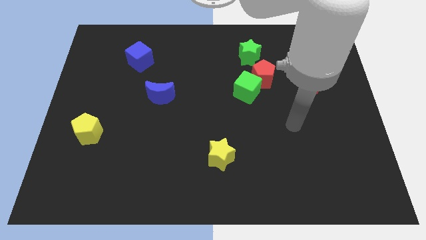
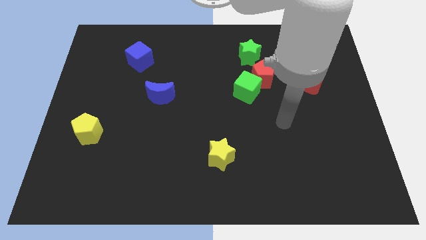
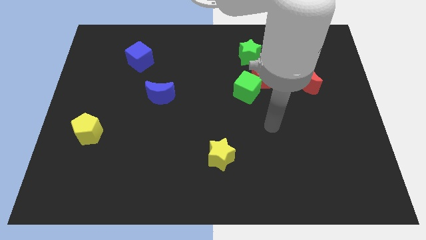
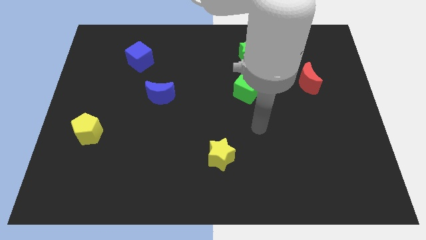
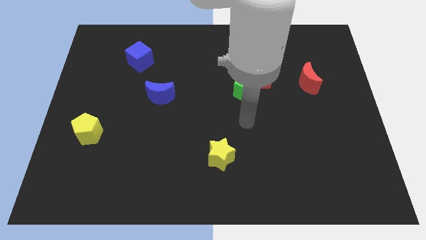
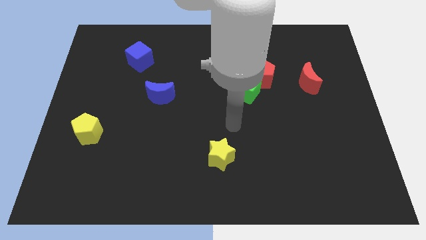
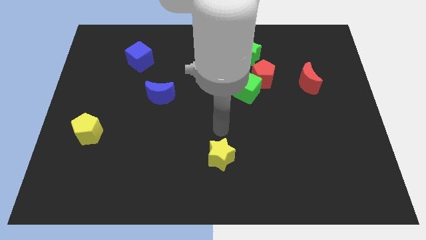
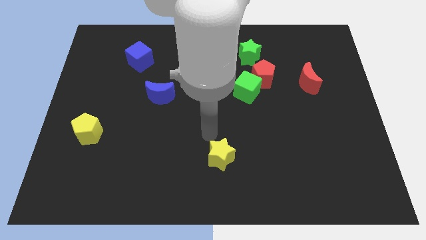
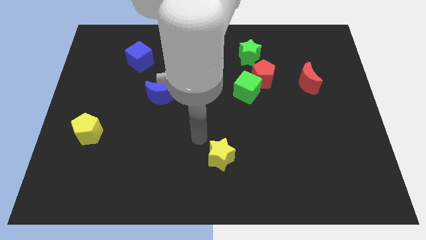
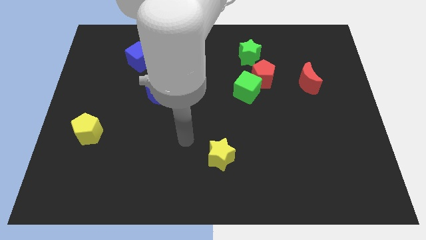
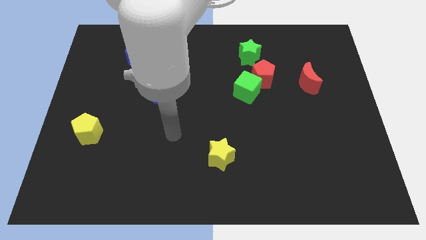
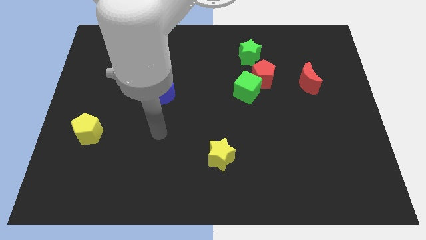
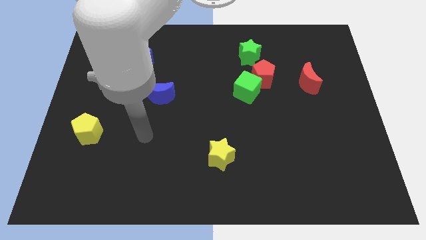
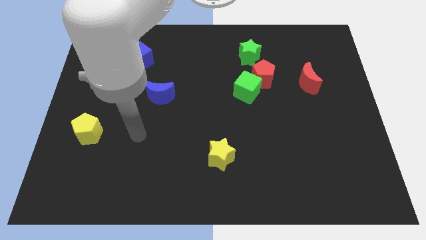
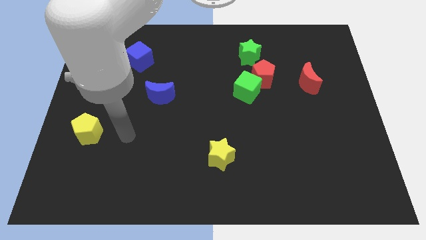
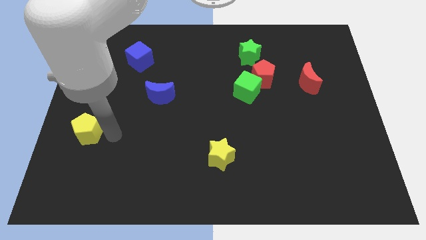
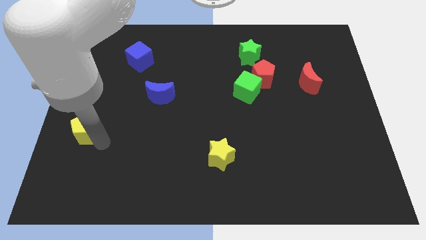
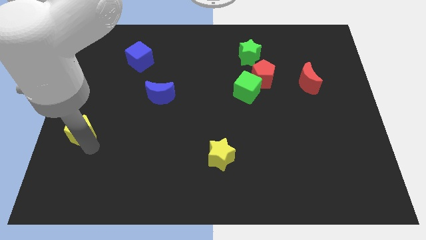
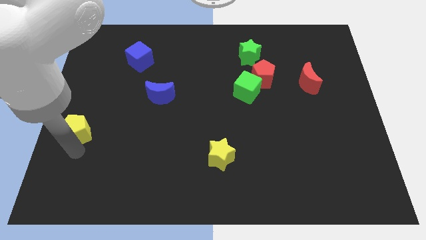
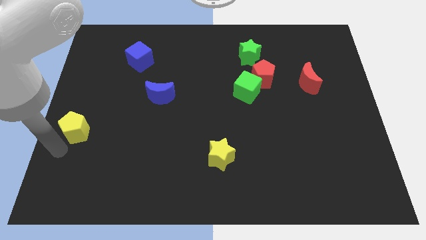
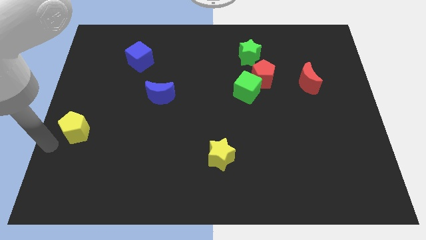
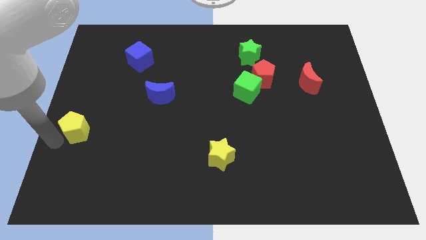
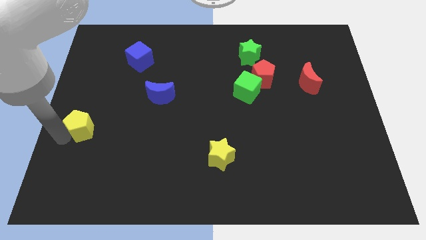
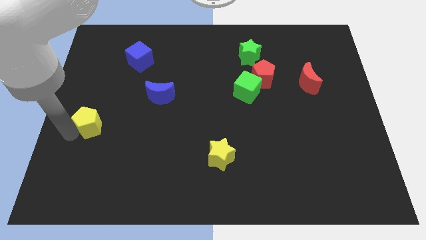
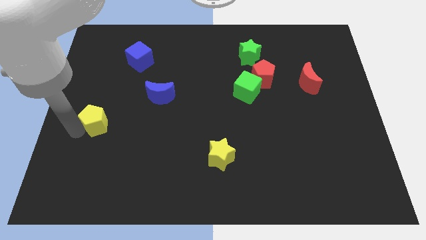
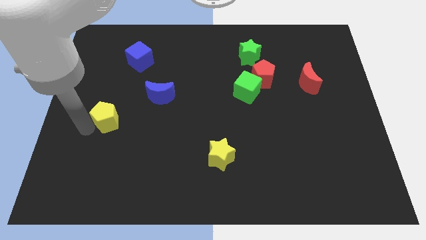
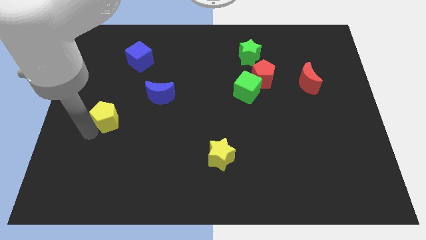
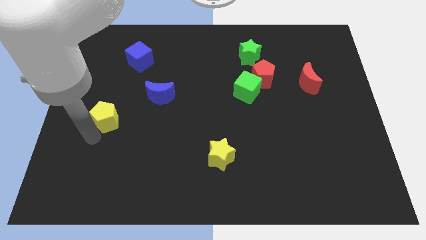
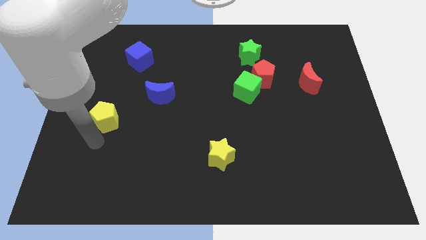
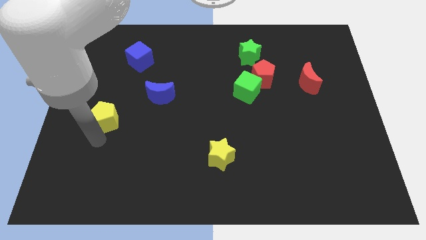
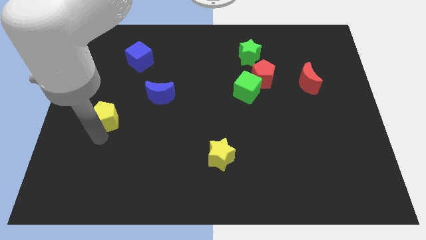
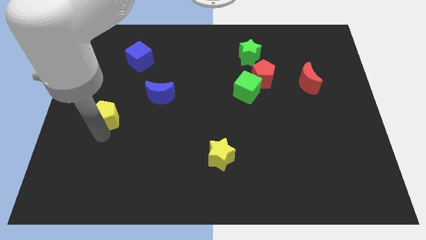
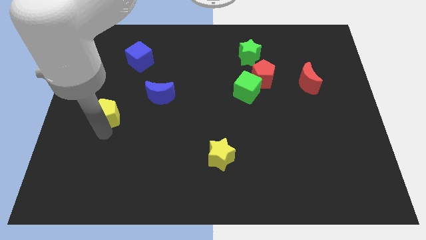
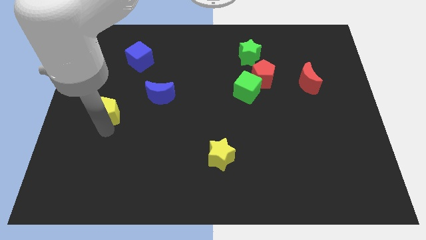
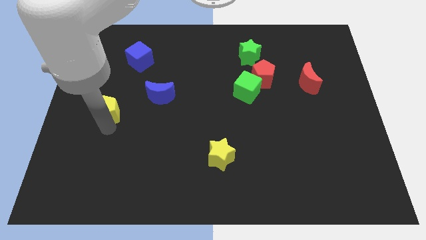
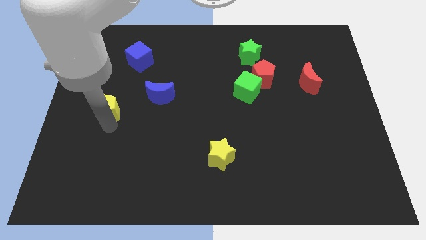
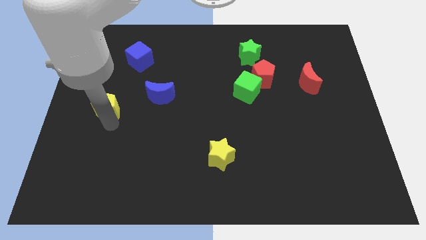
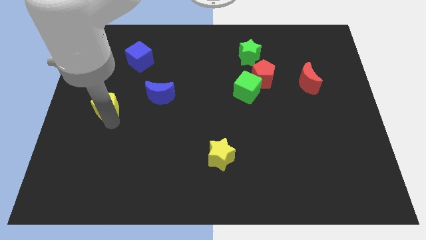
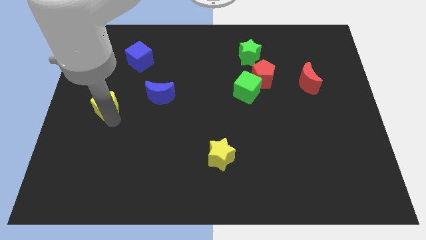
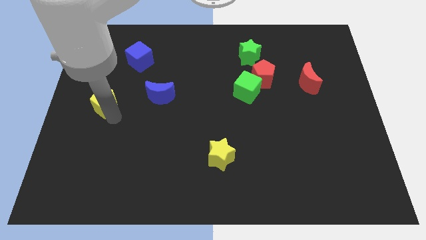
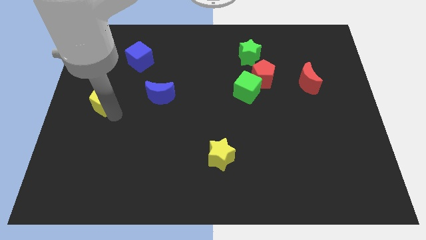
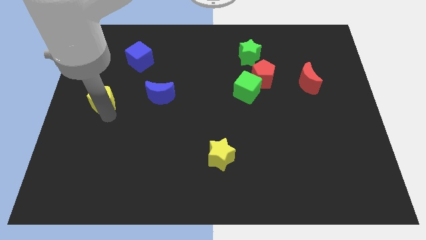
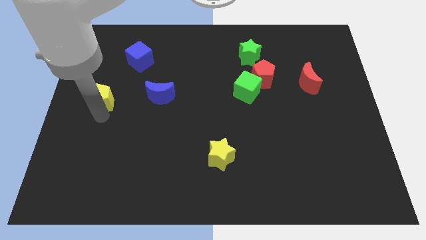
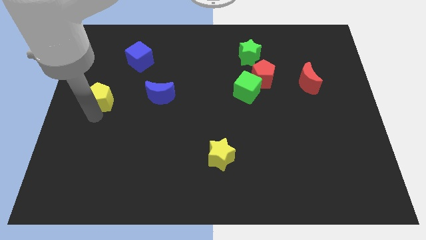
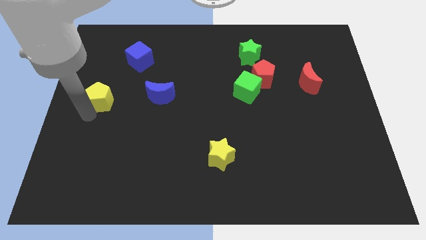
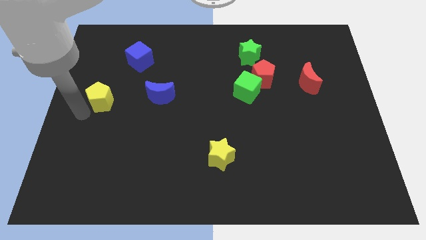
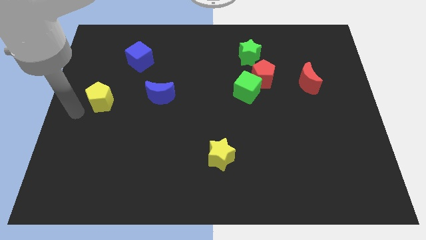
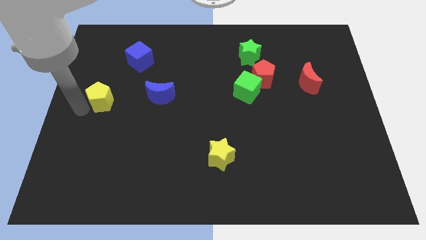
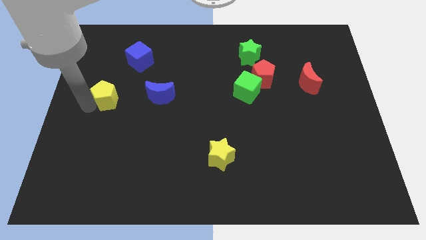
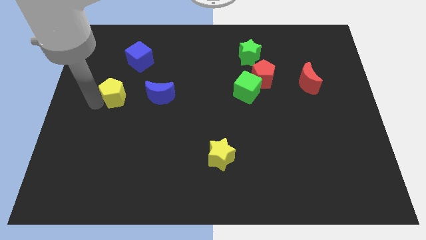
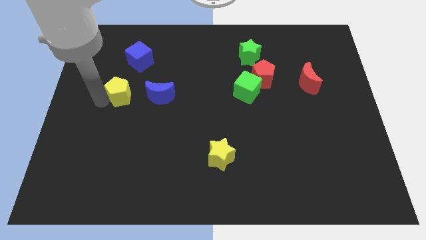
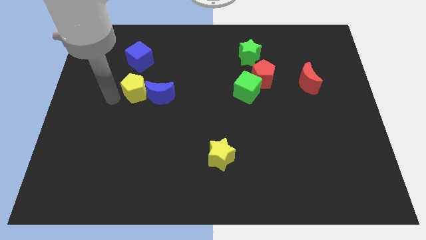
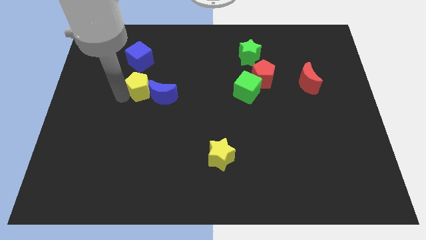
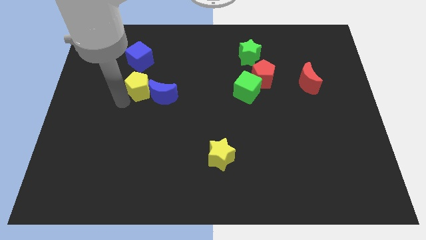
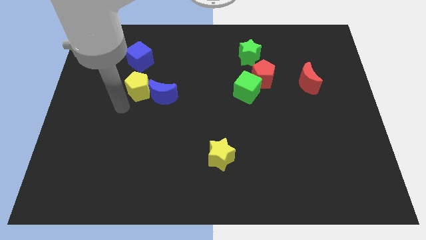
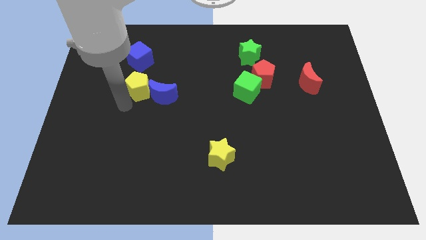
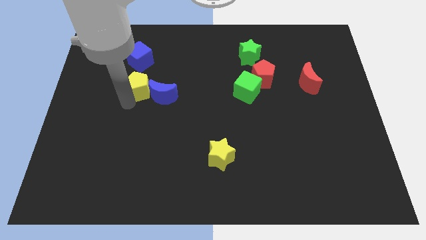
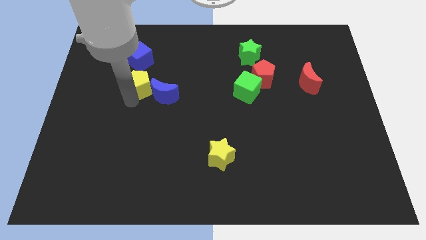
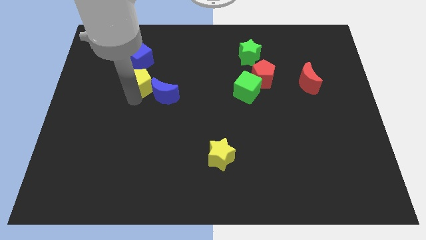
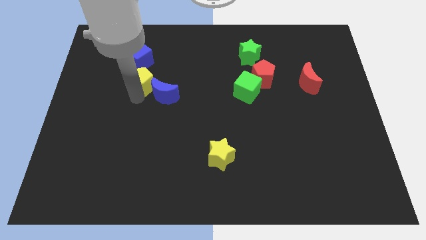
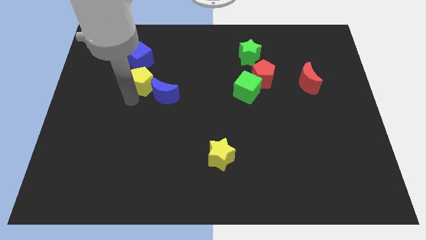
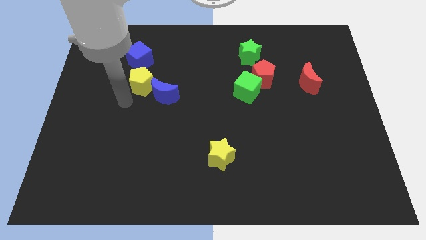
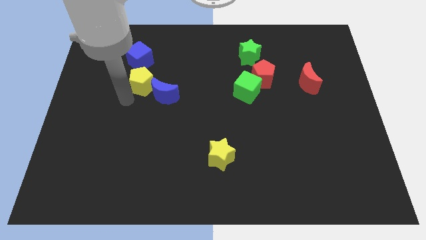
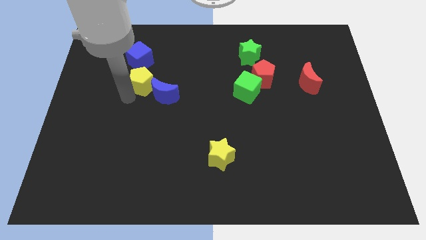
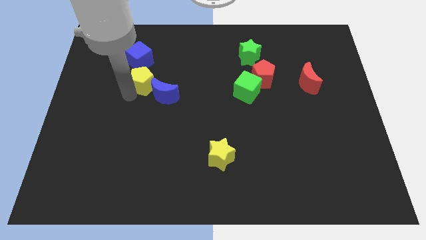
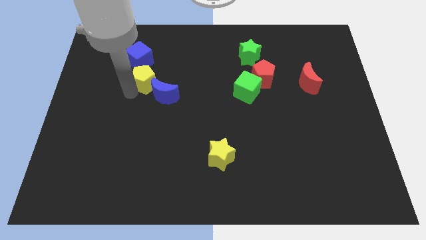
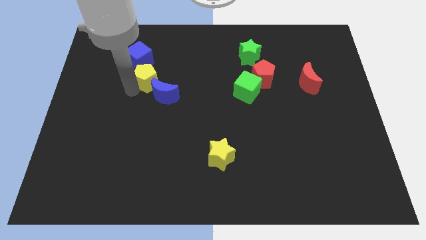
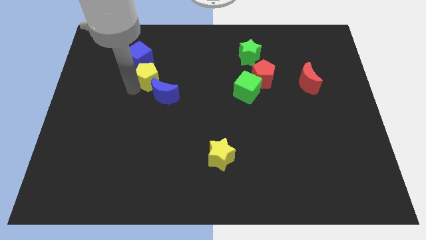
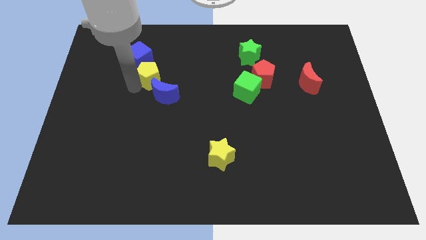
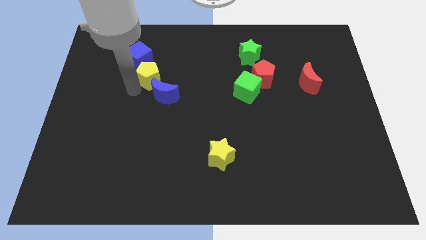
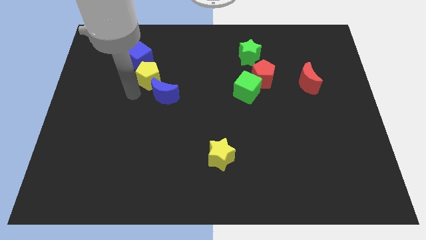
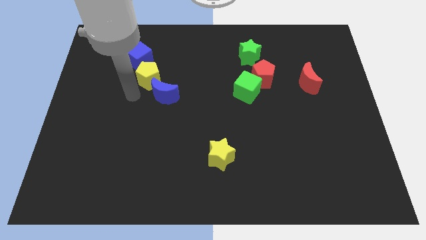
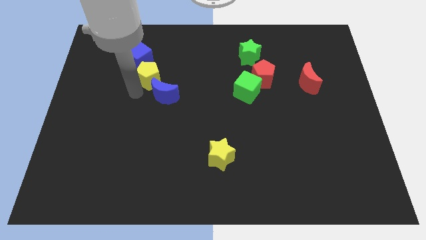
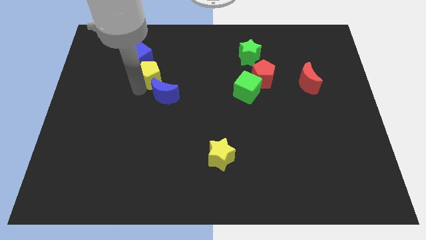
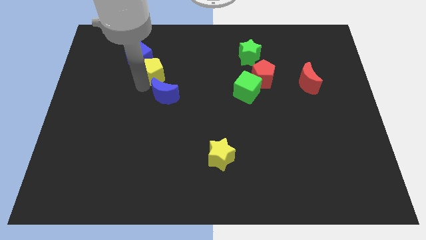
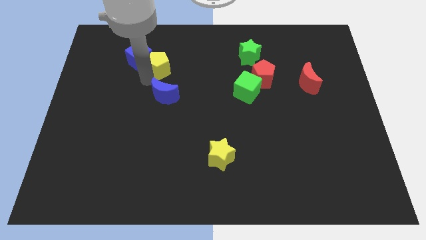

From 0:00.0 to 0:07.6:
slide the yellow pentagon just right of the blue cube

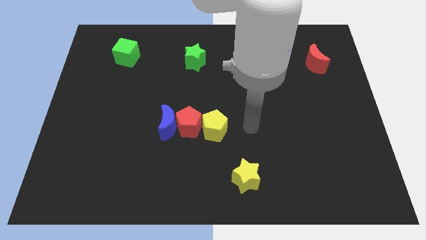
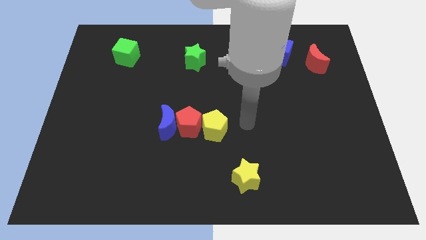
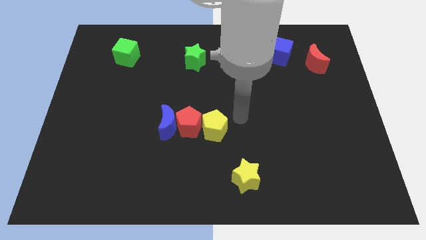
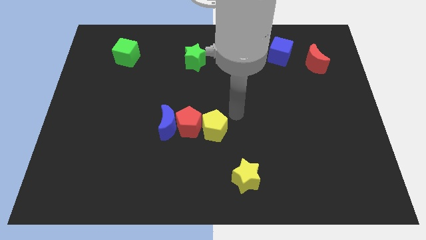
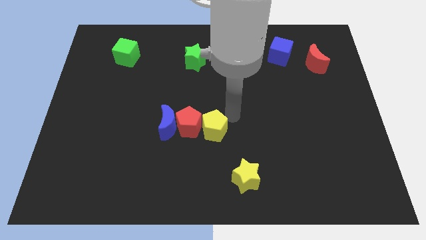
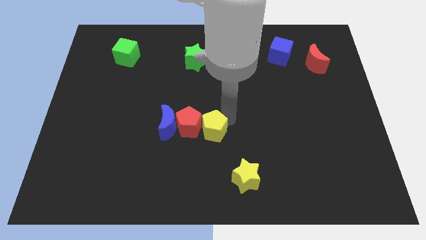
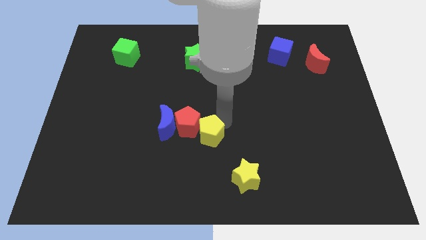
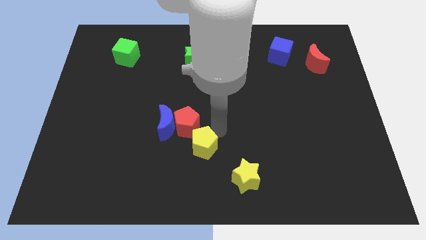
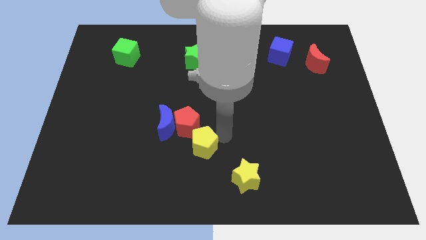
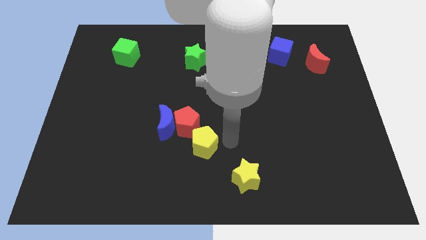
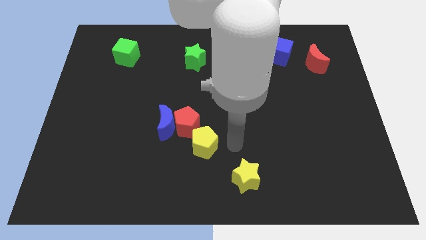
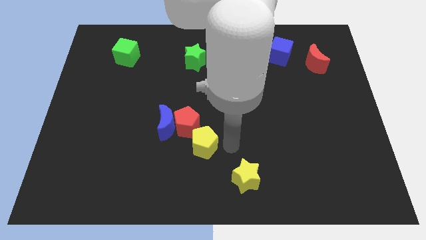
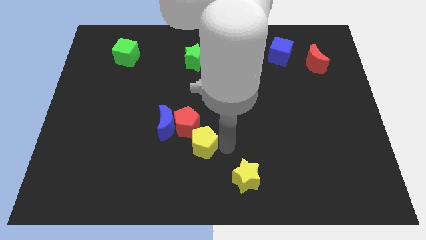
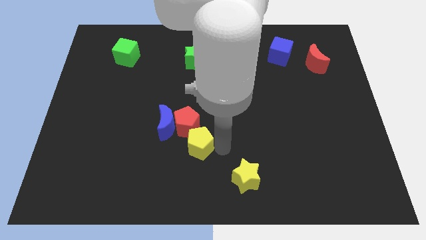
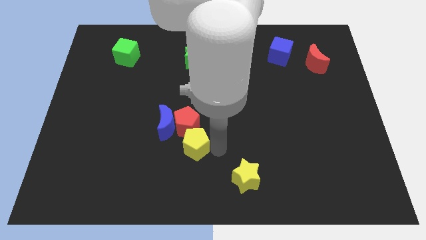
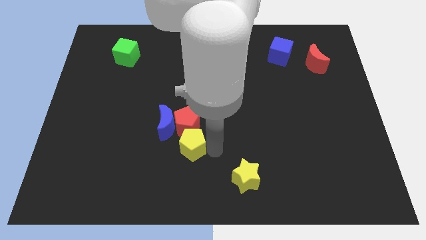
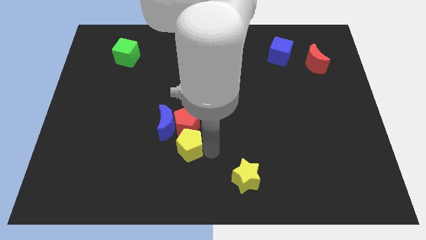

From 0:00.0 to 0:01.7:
push the yellow pentagon diagonally down and to the left of the red pentagon
